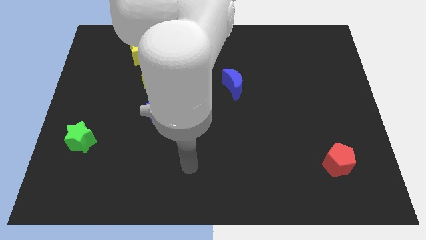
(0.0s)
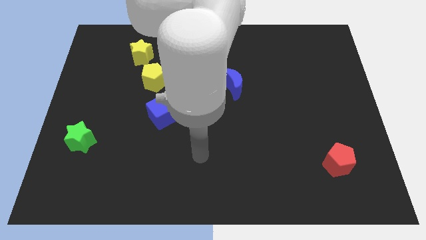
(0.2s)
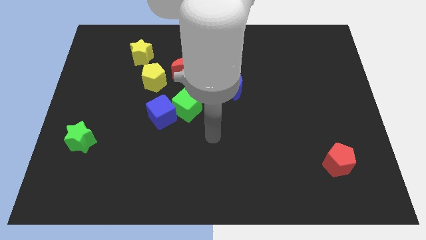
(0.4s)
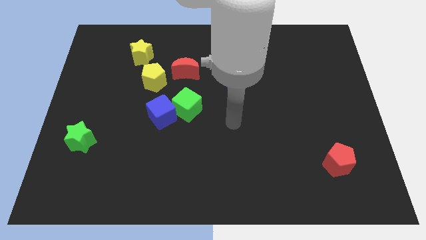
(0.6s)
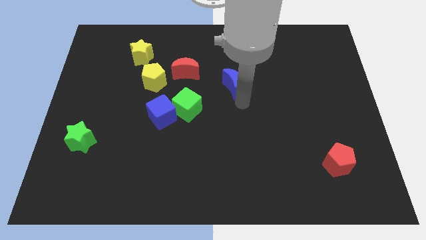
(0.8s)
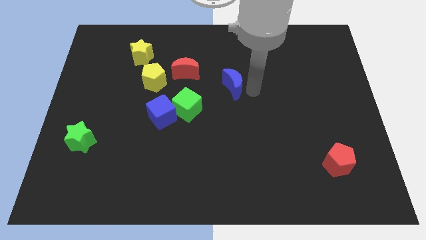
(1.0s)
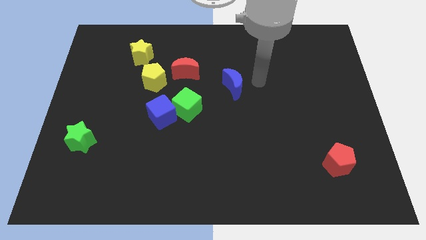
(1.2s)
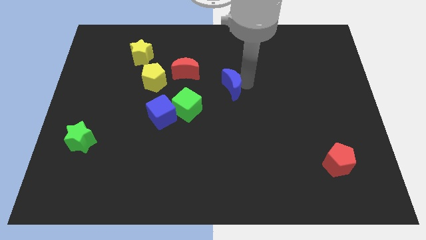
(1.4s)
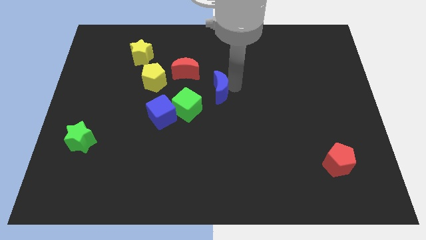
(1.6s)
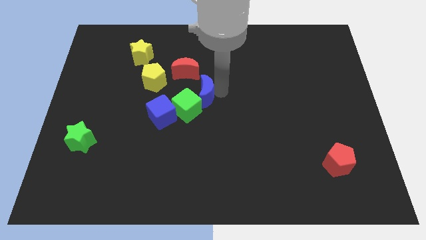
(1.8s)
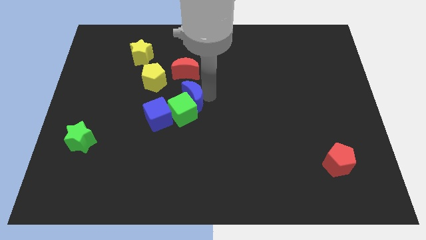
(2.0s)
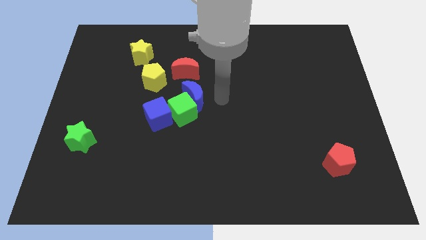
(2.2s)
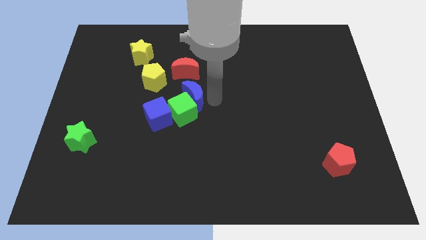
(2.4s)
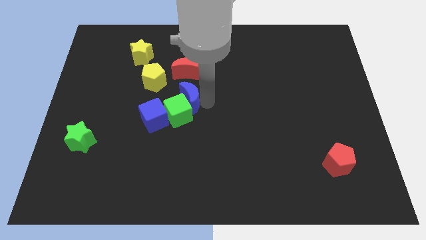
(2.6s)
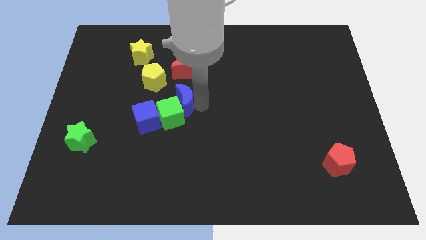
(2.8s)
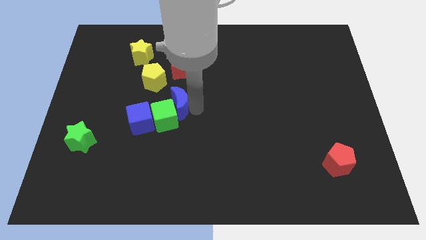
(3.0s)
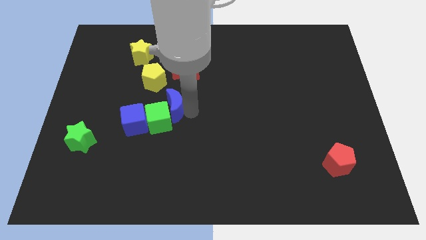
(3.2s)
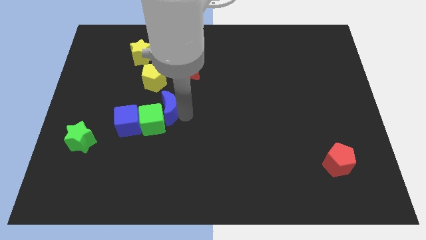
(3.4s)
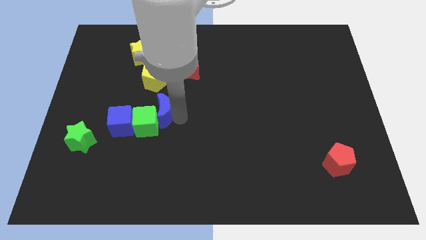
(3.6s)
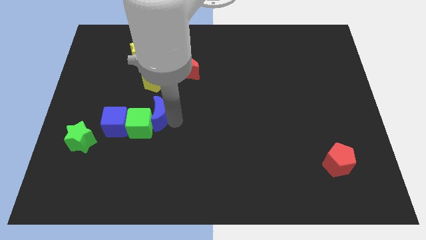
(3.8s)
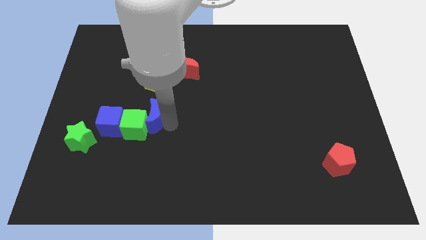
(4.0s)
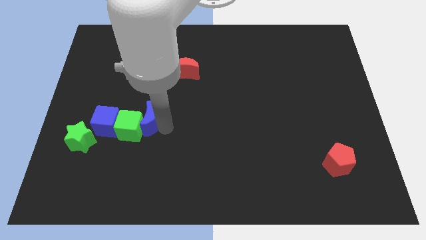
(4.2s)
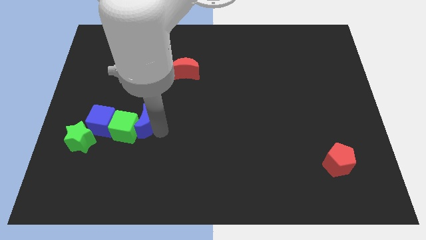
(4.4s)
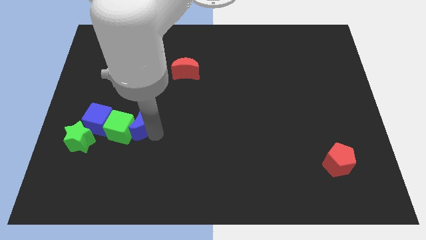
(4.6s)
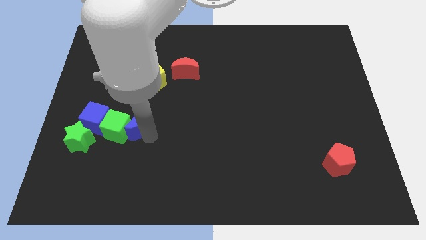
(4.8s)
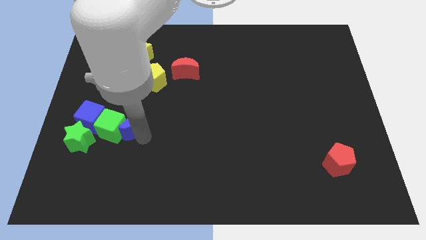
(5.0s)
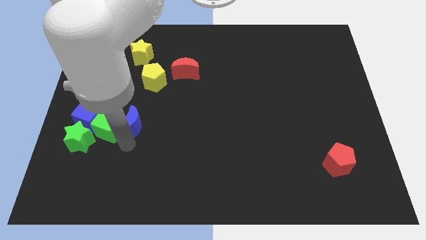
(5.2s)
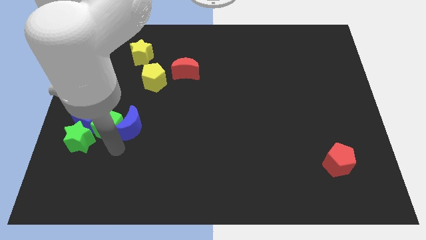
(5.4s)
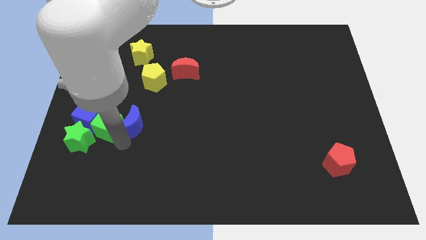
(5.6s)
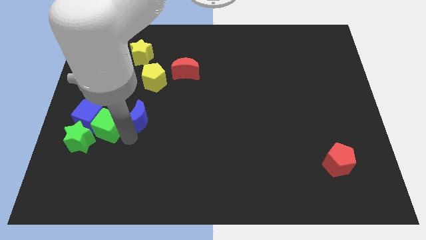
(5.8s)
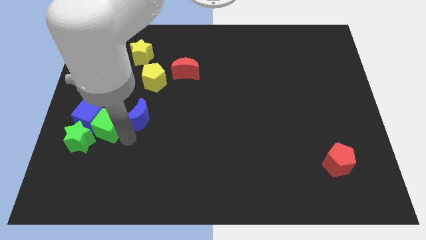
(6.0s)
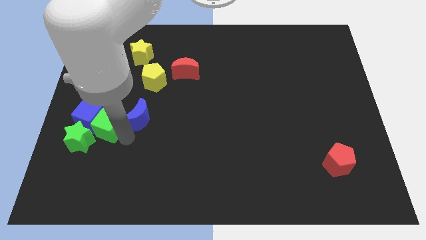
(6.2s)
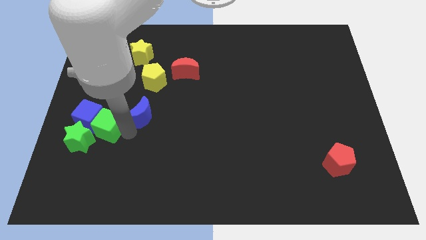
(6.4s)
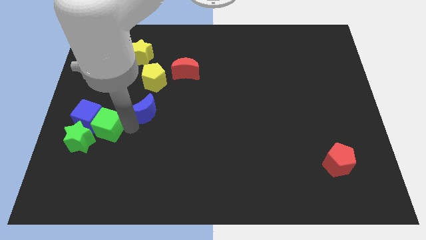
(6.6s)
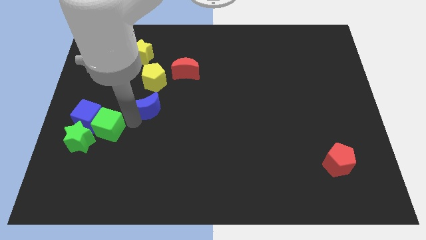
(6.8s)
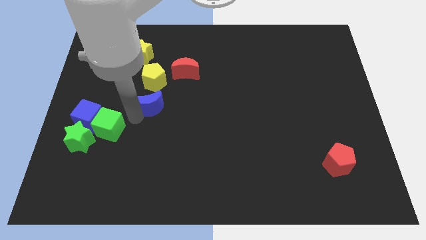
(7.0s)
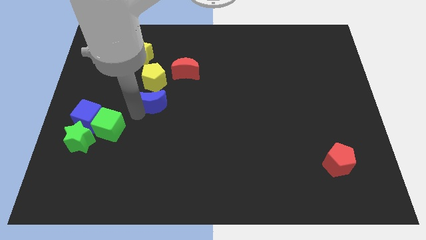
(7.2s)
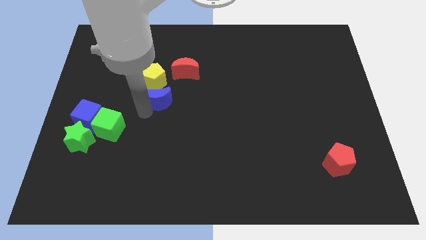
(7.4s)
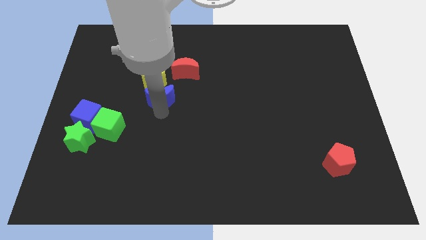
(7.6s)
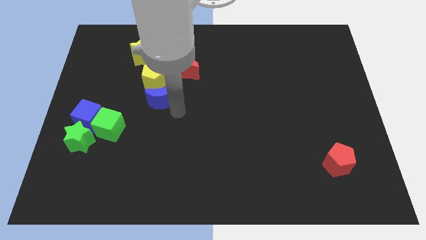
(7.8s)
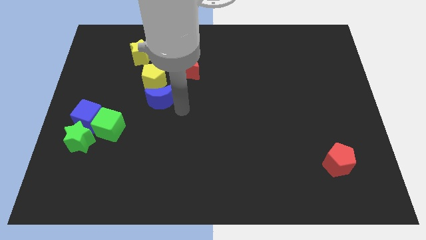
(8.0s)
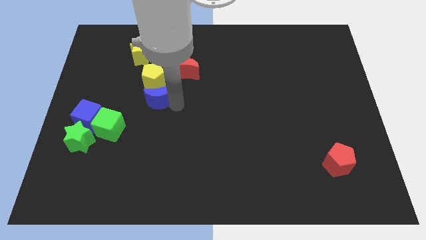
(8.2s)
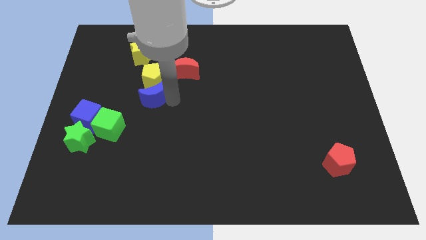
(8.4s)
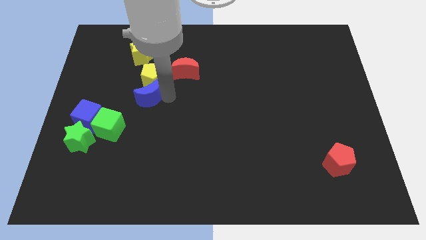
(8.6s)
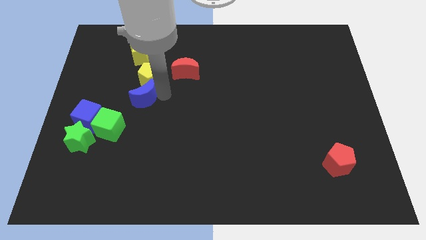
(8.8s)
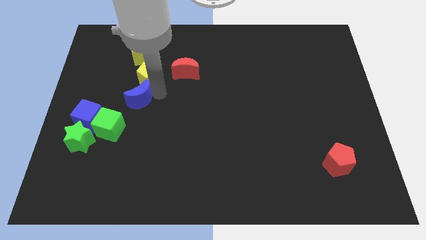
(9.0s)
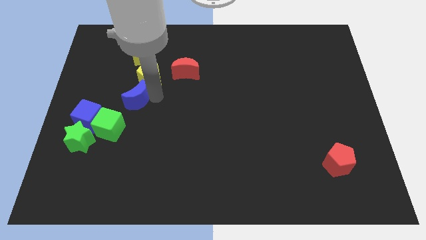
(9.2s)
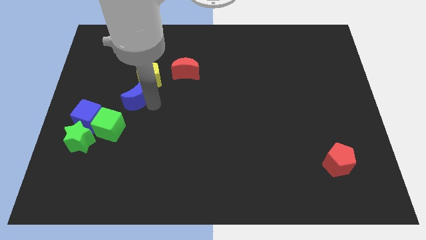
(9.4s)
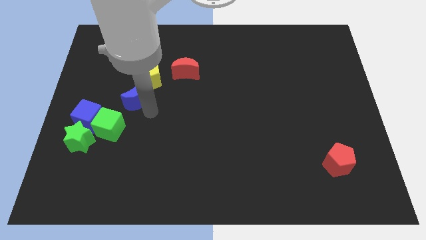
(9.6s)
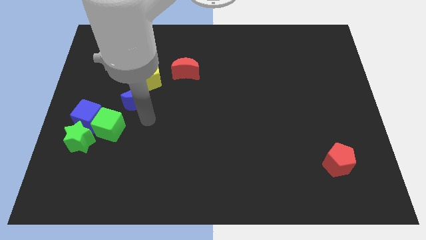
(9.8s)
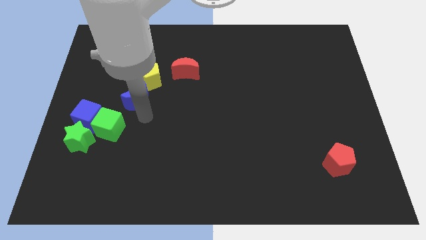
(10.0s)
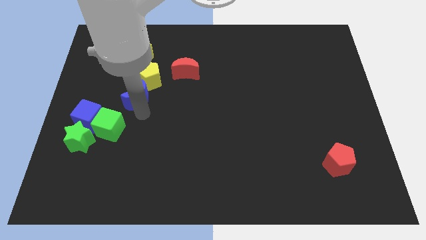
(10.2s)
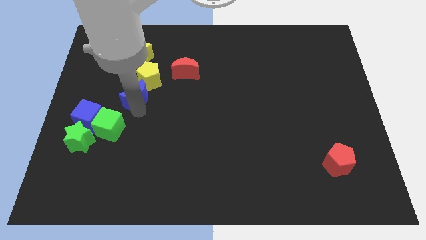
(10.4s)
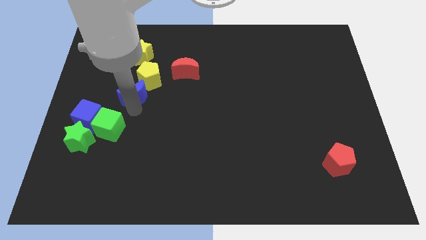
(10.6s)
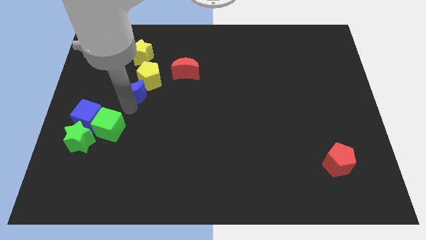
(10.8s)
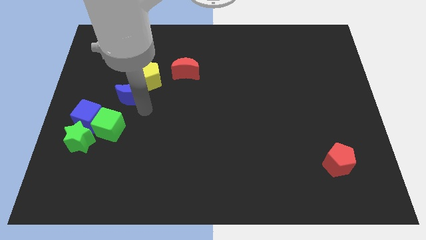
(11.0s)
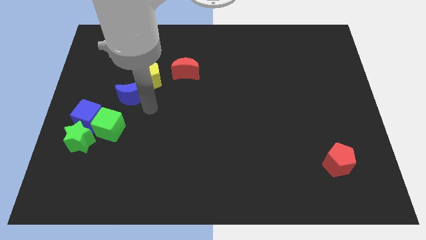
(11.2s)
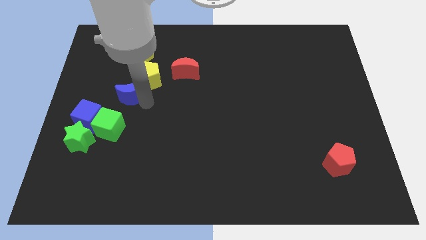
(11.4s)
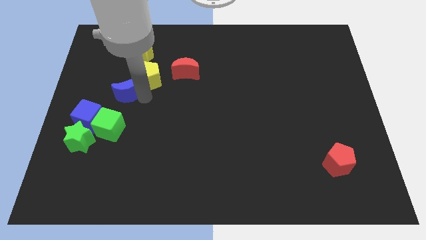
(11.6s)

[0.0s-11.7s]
push the blue moon to the left side of the yellow pentagon

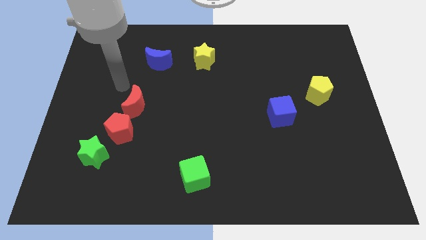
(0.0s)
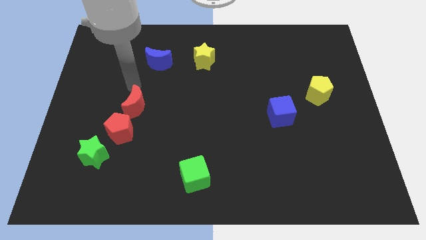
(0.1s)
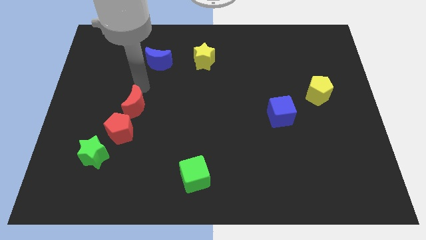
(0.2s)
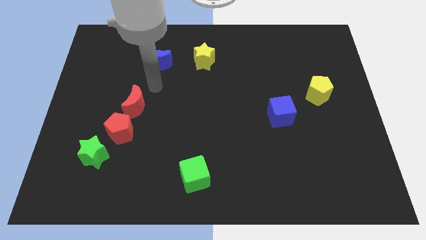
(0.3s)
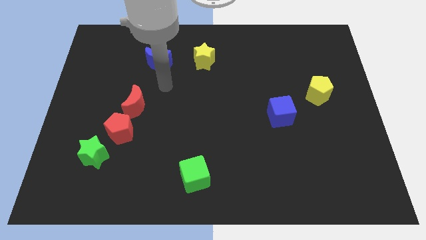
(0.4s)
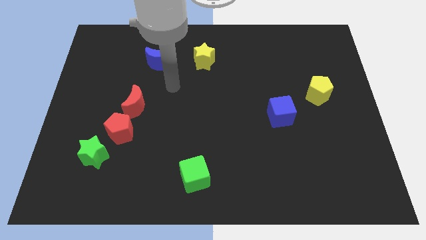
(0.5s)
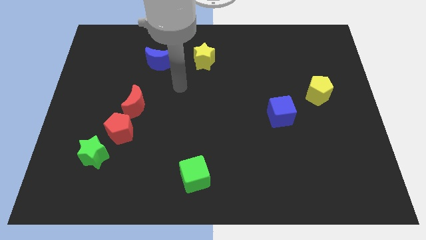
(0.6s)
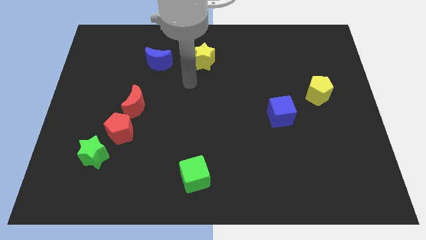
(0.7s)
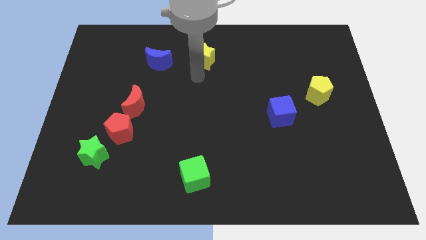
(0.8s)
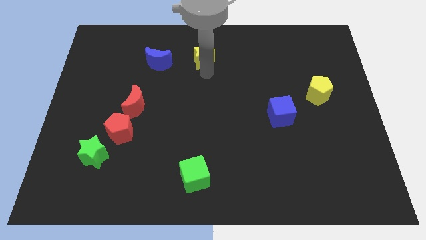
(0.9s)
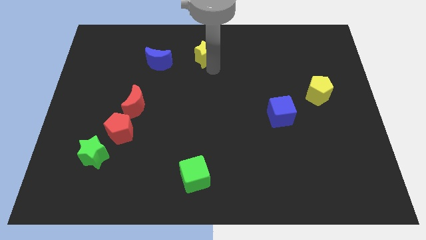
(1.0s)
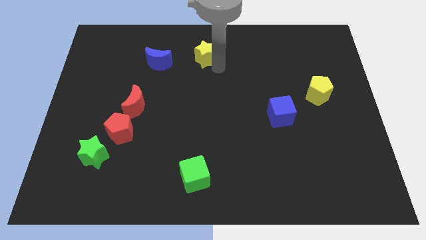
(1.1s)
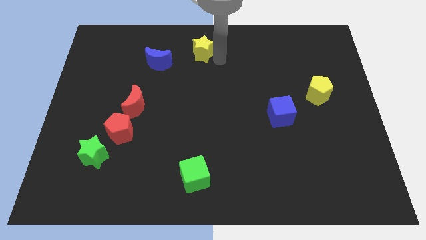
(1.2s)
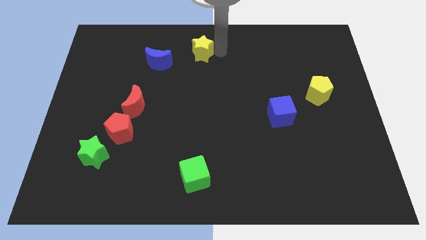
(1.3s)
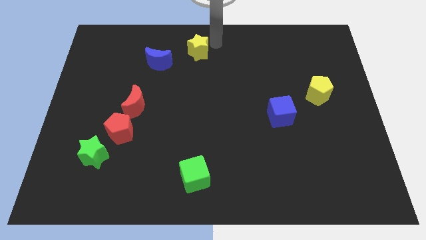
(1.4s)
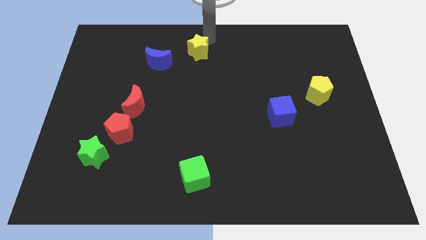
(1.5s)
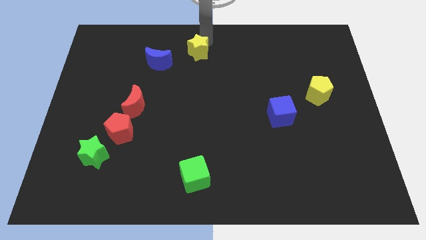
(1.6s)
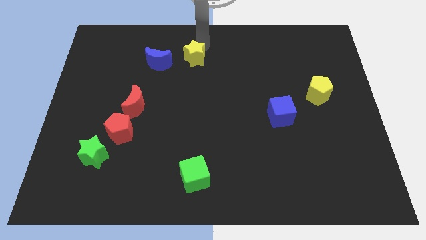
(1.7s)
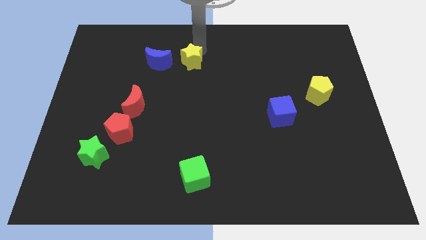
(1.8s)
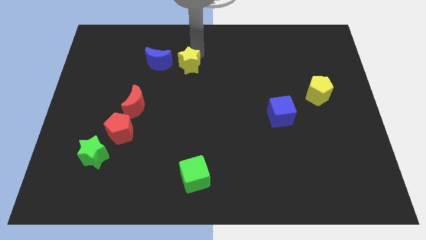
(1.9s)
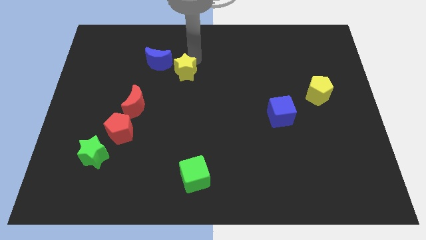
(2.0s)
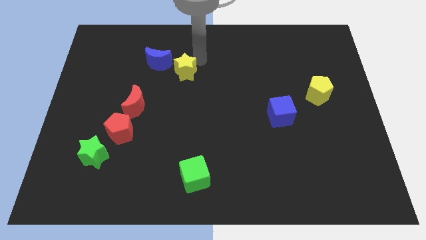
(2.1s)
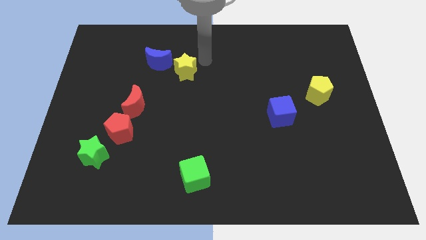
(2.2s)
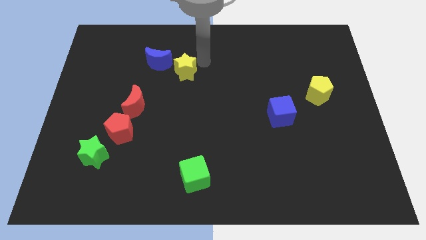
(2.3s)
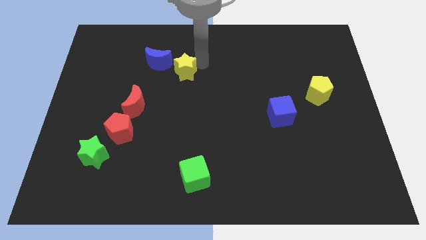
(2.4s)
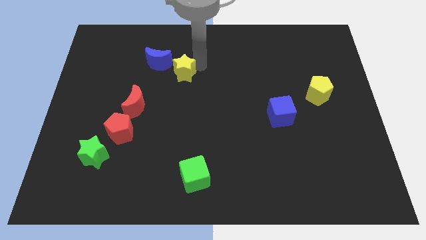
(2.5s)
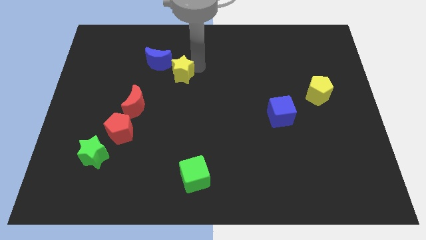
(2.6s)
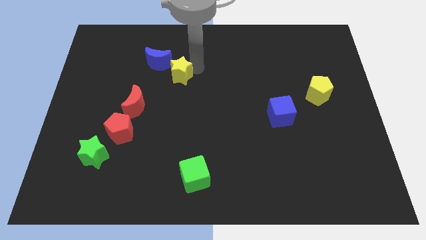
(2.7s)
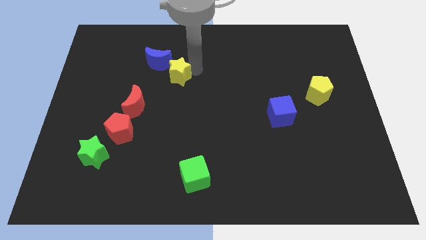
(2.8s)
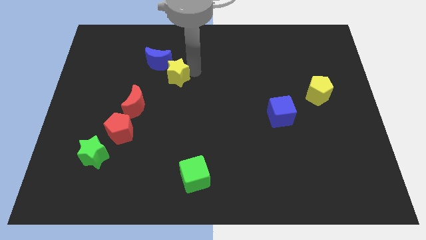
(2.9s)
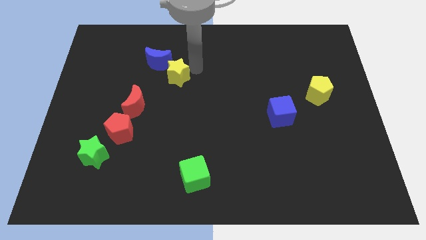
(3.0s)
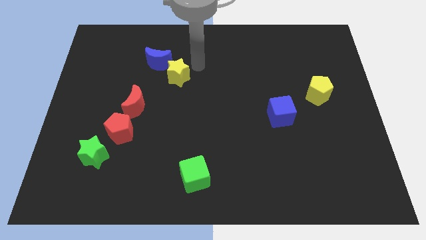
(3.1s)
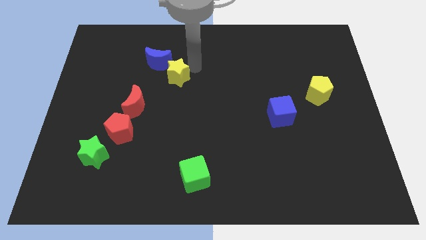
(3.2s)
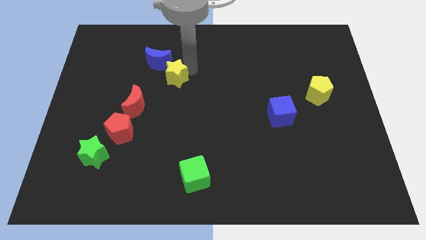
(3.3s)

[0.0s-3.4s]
push the yellow star to the bottom of the blue moon
